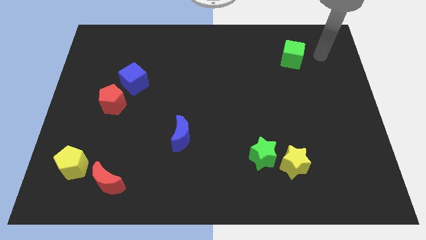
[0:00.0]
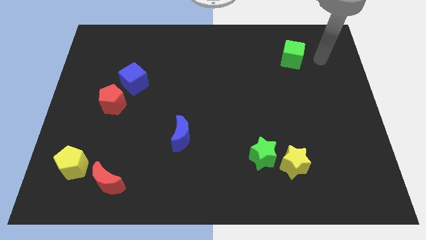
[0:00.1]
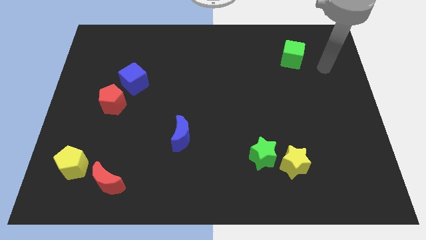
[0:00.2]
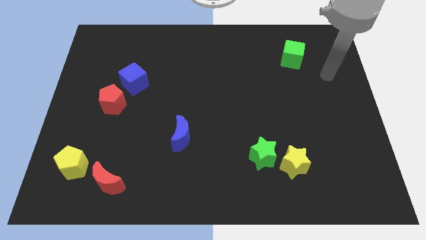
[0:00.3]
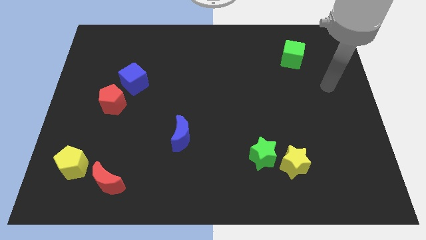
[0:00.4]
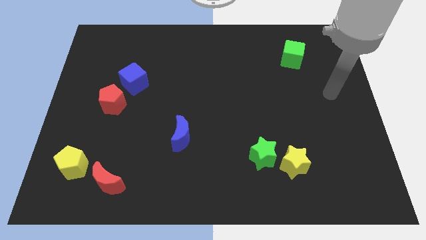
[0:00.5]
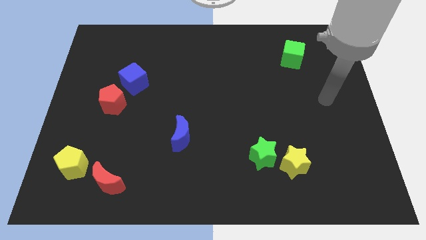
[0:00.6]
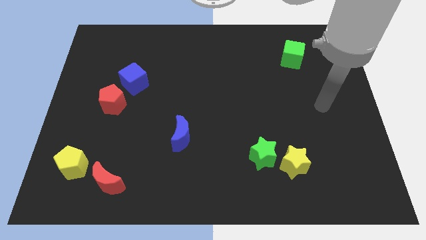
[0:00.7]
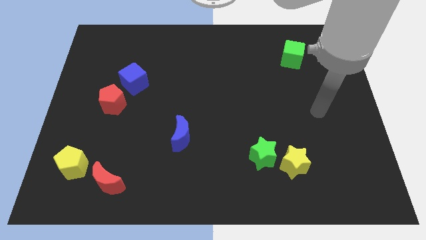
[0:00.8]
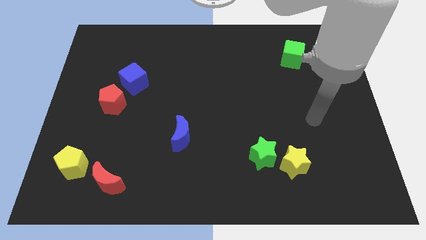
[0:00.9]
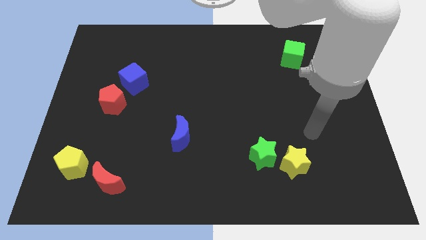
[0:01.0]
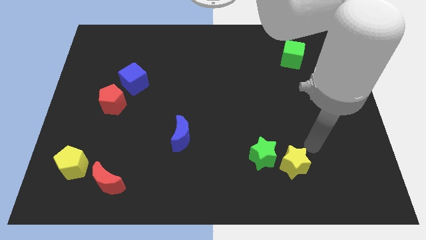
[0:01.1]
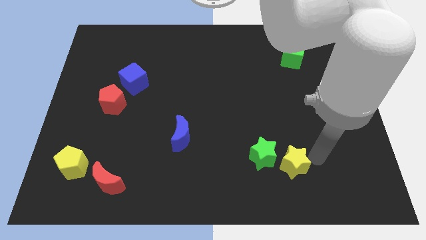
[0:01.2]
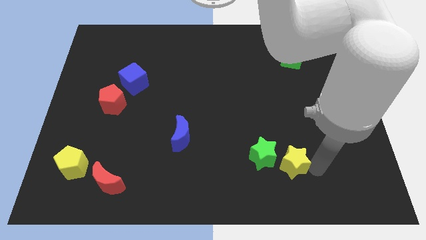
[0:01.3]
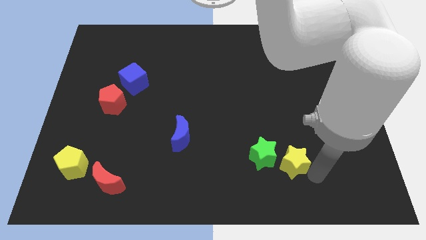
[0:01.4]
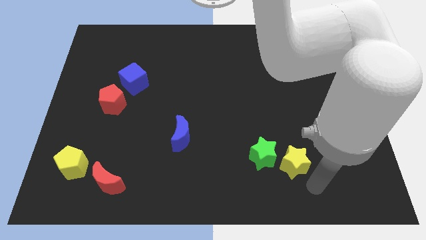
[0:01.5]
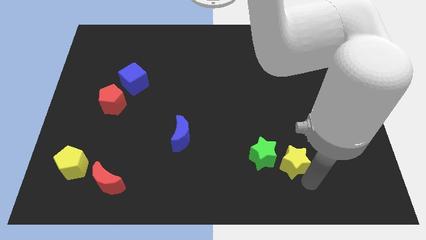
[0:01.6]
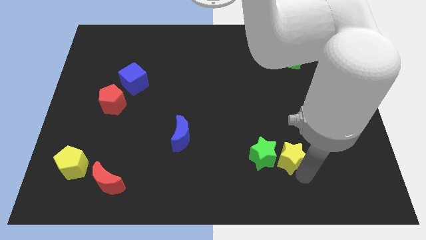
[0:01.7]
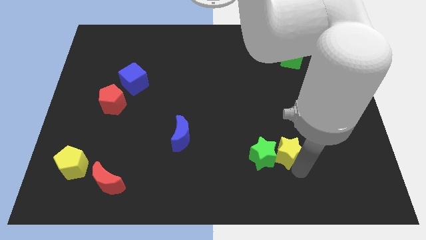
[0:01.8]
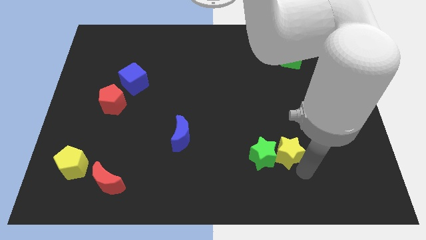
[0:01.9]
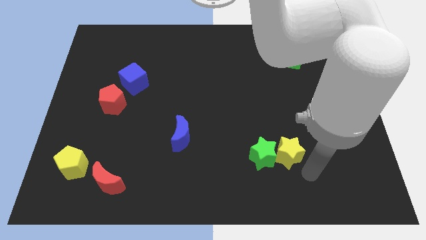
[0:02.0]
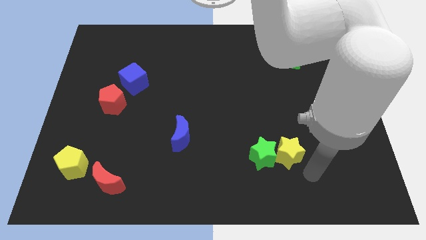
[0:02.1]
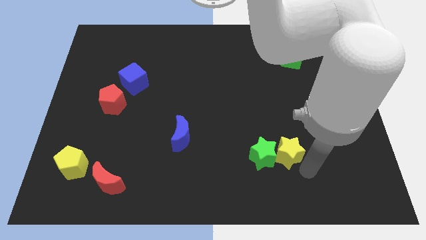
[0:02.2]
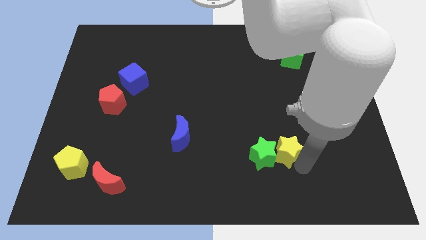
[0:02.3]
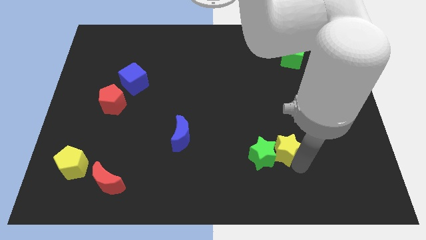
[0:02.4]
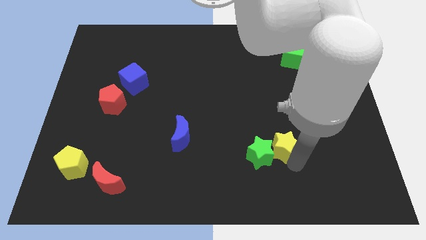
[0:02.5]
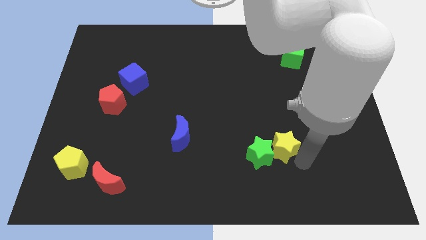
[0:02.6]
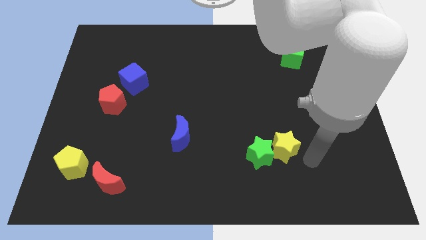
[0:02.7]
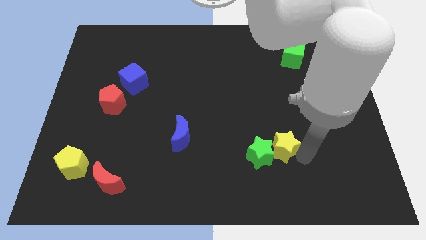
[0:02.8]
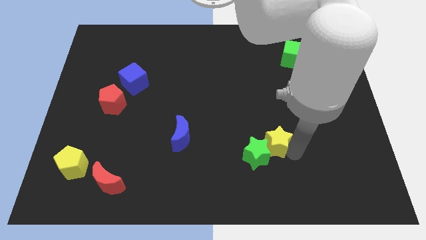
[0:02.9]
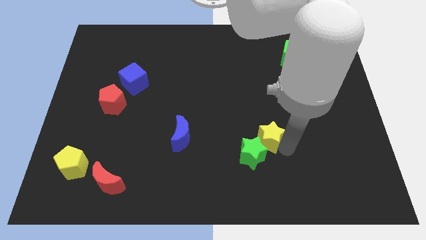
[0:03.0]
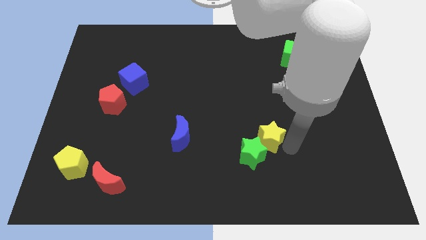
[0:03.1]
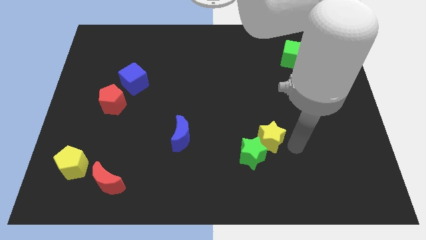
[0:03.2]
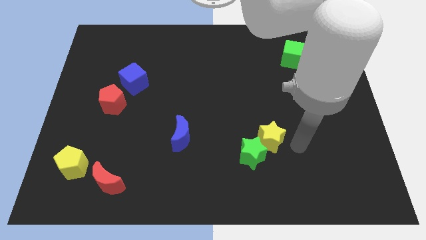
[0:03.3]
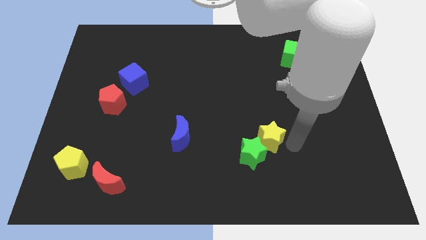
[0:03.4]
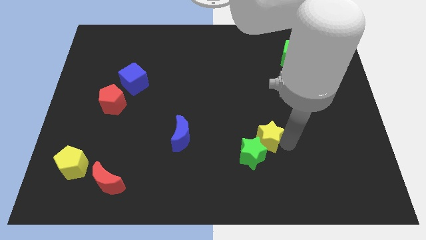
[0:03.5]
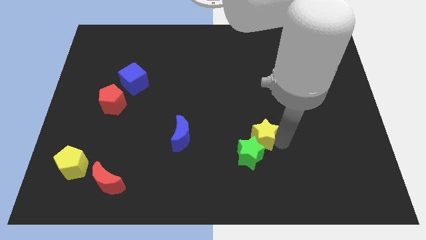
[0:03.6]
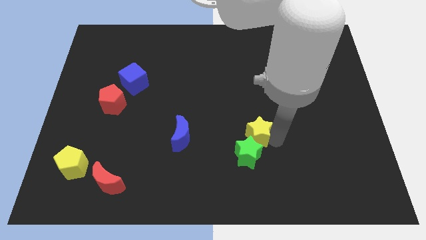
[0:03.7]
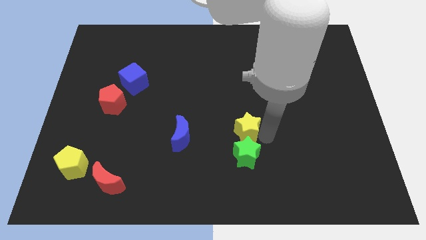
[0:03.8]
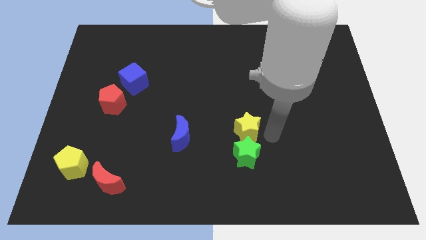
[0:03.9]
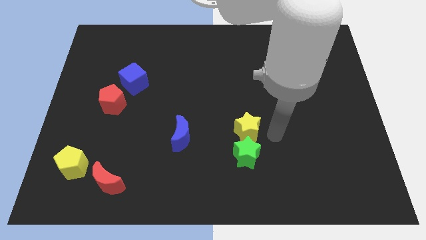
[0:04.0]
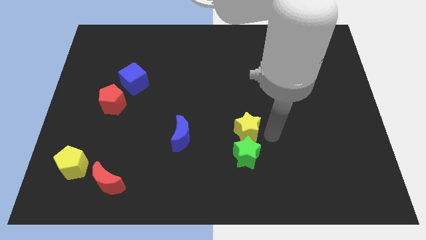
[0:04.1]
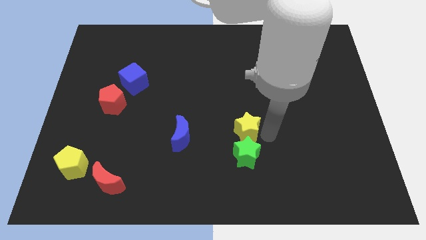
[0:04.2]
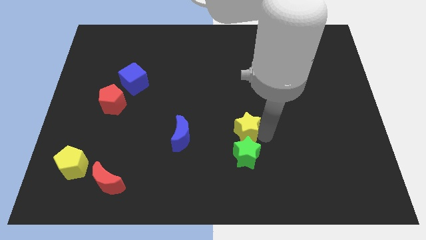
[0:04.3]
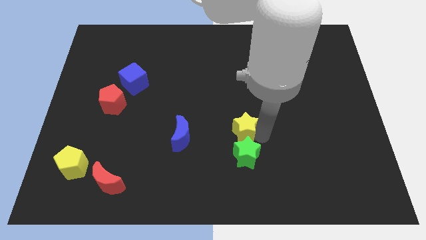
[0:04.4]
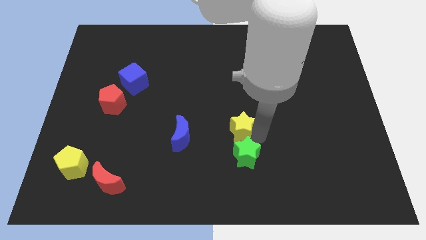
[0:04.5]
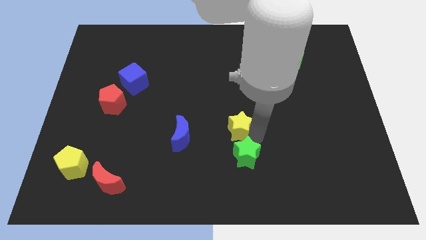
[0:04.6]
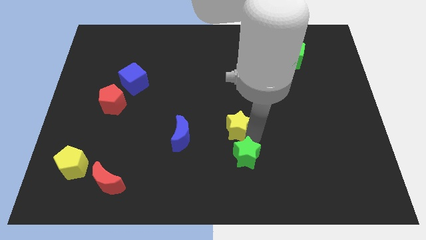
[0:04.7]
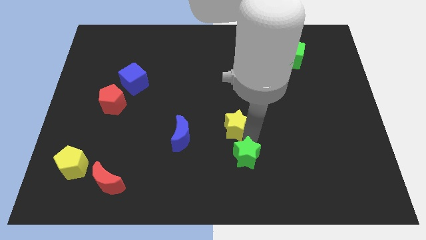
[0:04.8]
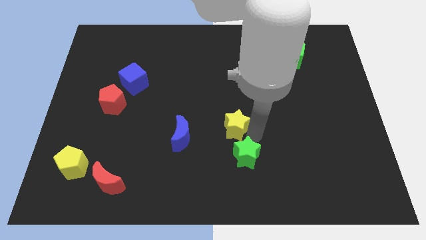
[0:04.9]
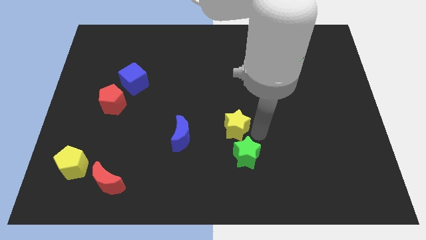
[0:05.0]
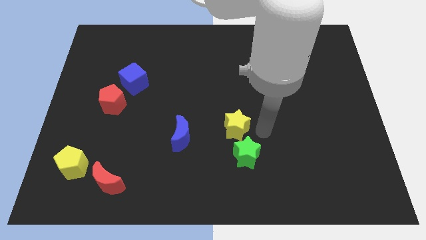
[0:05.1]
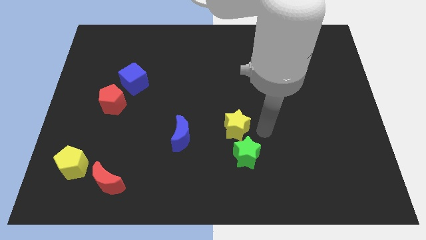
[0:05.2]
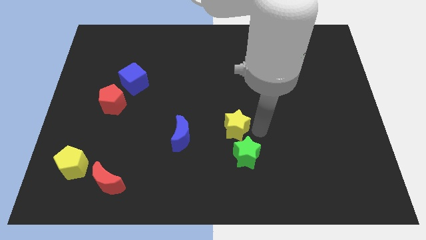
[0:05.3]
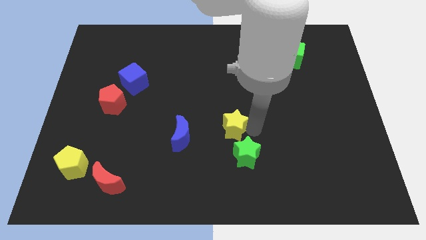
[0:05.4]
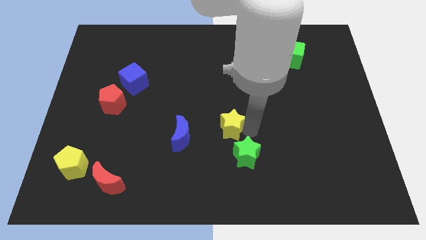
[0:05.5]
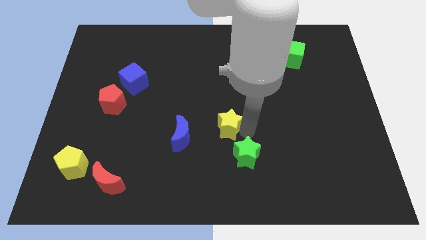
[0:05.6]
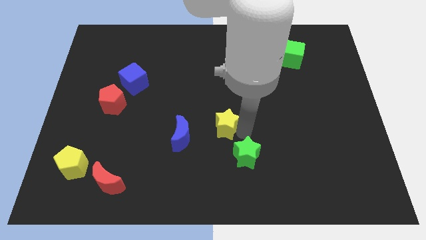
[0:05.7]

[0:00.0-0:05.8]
slide the yellow star diagonally up and to the right of the blue moon

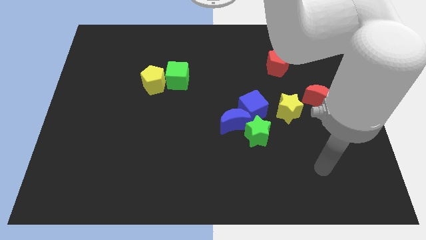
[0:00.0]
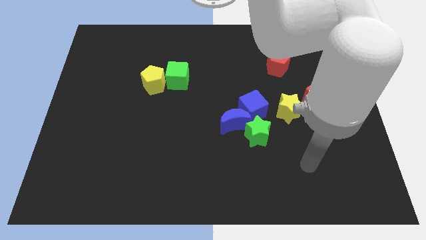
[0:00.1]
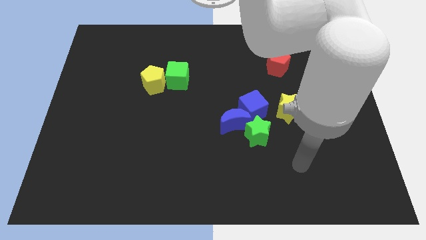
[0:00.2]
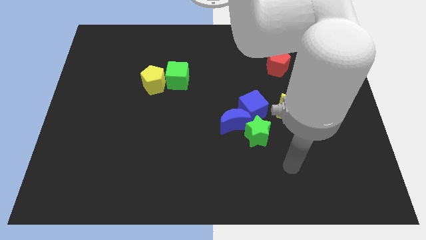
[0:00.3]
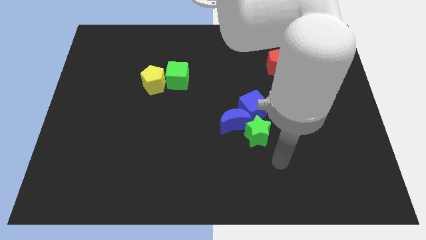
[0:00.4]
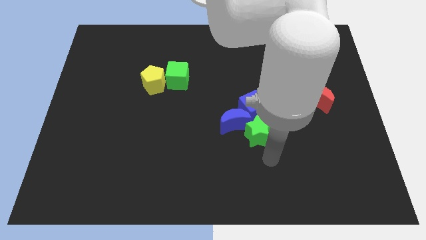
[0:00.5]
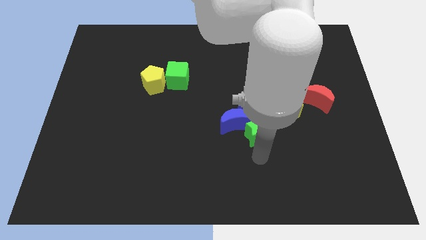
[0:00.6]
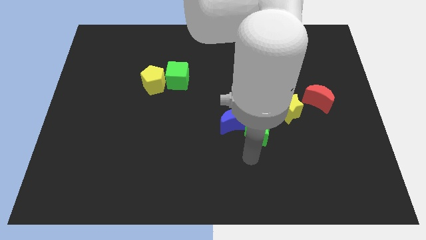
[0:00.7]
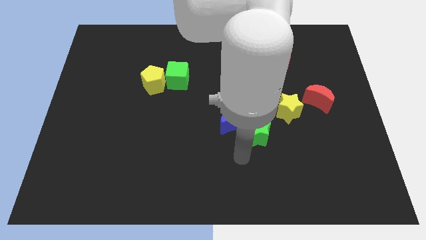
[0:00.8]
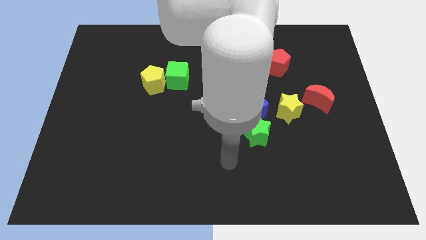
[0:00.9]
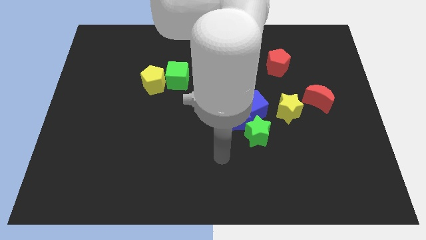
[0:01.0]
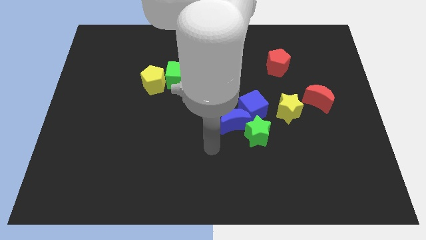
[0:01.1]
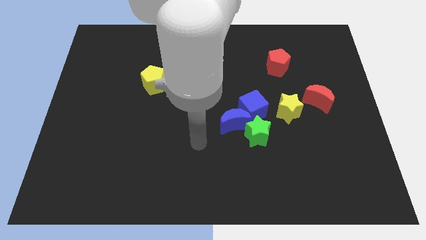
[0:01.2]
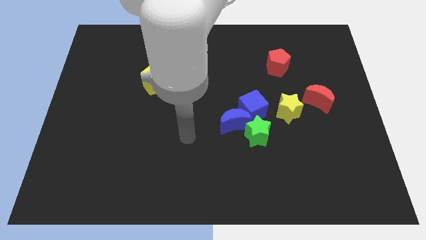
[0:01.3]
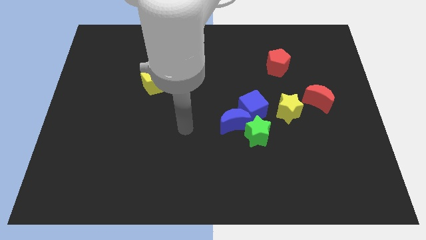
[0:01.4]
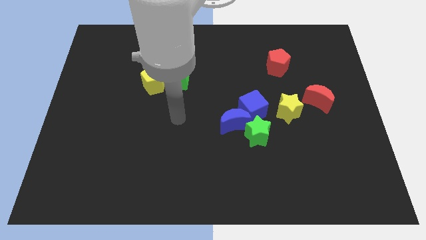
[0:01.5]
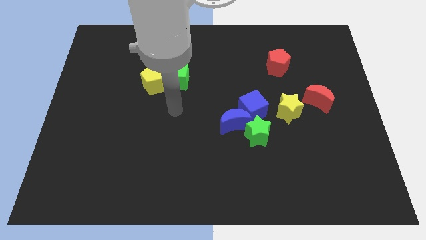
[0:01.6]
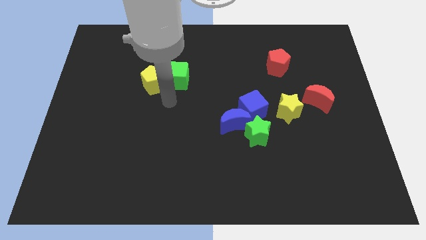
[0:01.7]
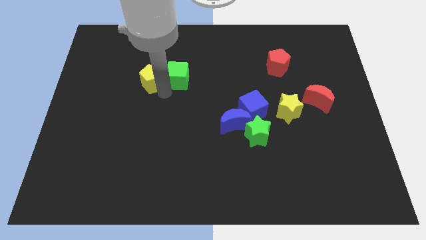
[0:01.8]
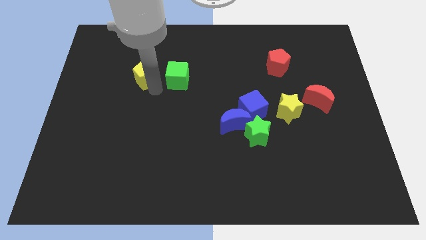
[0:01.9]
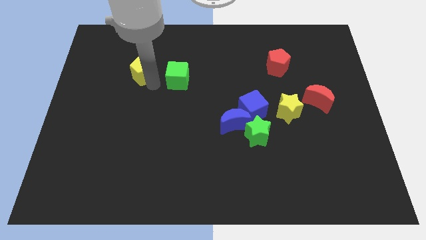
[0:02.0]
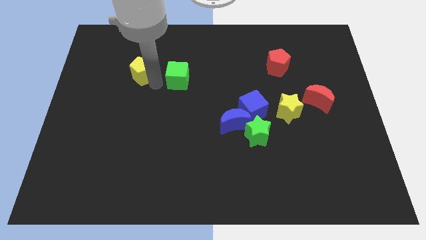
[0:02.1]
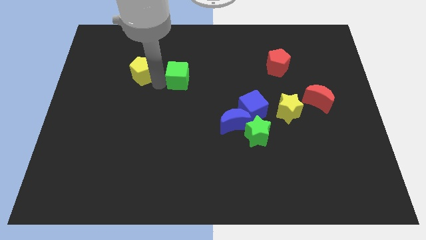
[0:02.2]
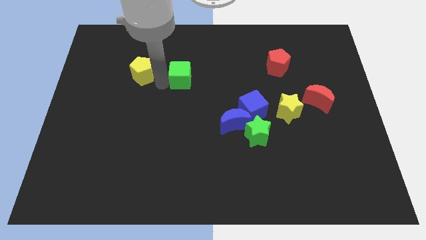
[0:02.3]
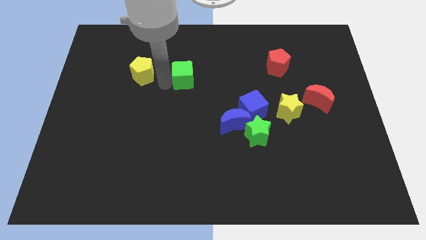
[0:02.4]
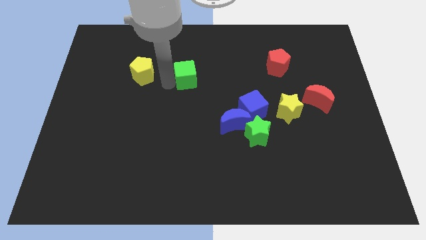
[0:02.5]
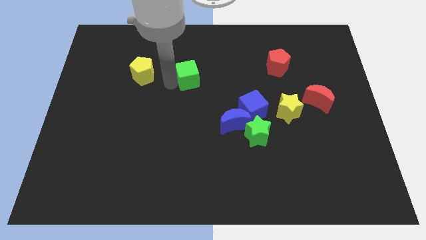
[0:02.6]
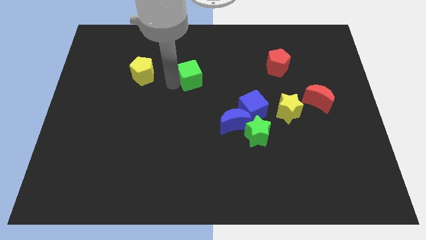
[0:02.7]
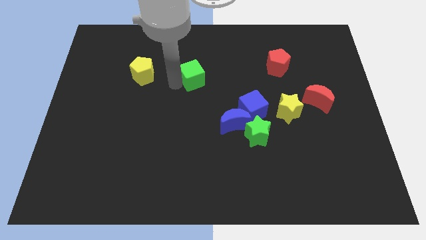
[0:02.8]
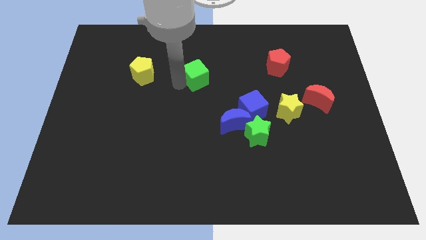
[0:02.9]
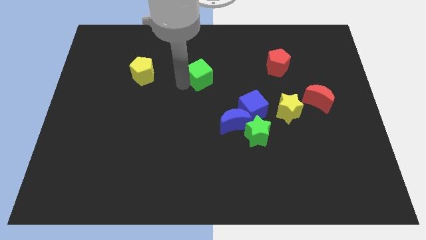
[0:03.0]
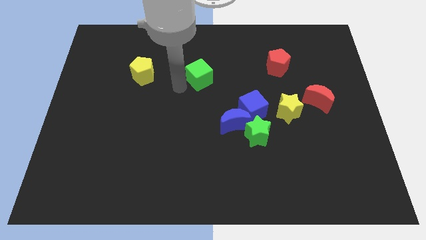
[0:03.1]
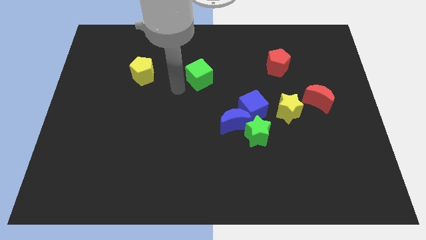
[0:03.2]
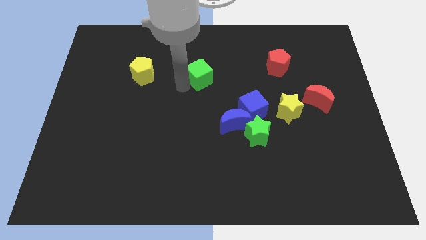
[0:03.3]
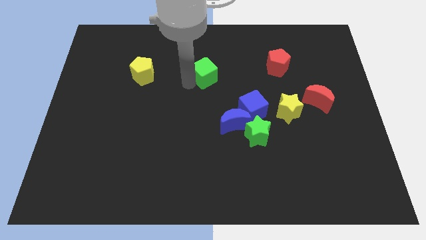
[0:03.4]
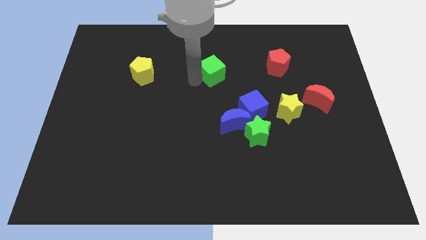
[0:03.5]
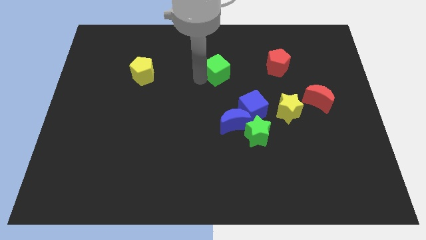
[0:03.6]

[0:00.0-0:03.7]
slide the green cube to the left side of the red pentagon
